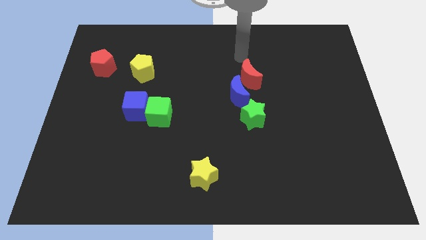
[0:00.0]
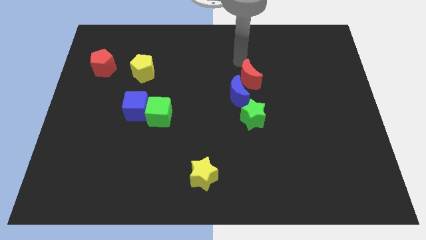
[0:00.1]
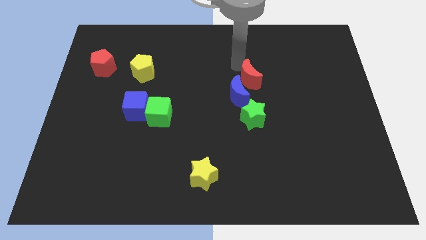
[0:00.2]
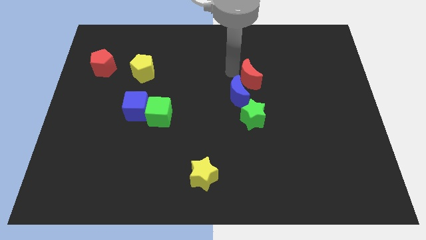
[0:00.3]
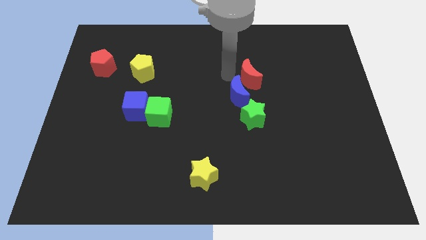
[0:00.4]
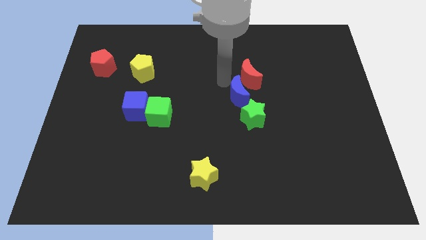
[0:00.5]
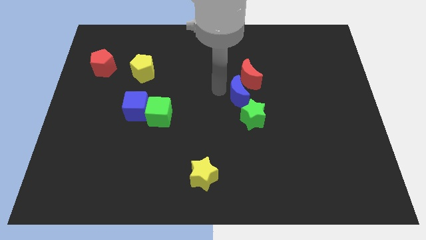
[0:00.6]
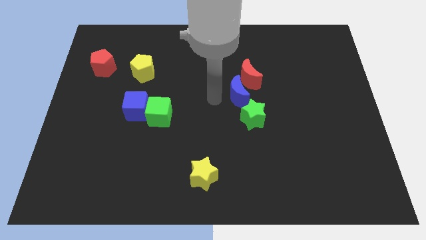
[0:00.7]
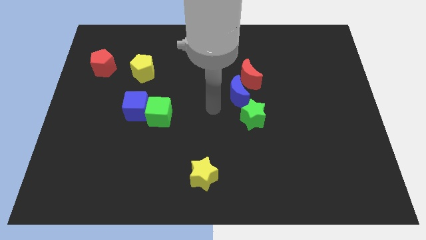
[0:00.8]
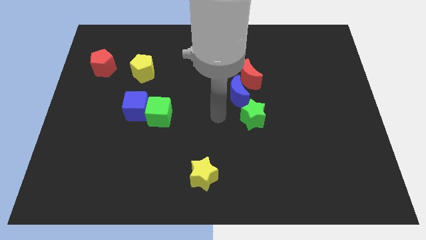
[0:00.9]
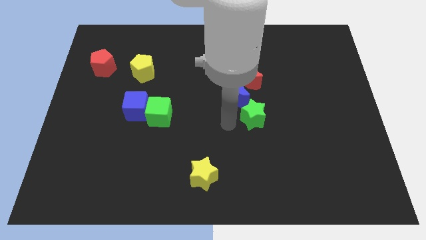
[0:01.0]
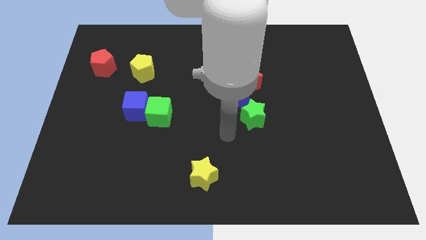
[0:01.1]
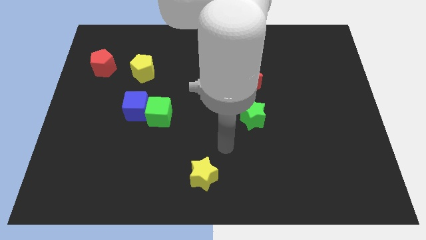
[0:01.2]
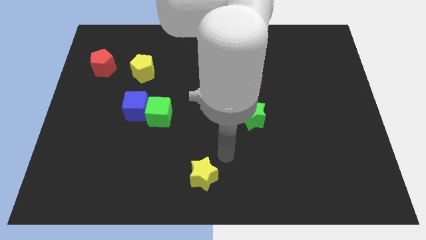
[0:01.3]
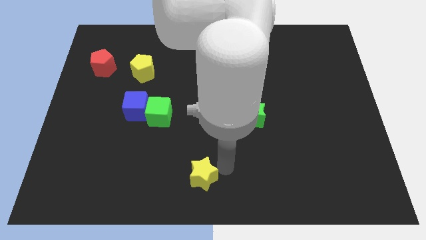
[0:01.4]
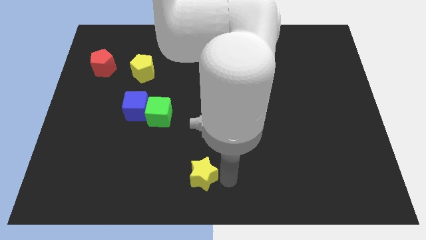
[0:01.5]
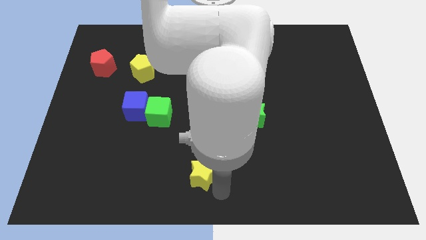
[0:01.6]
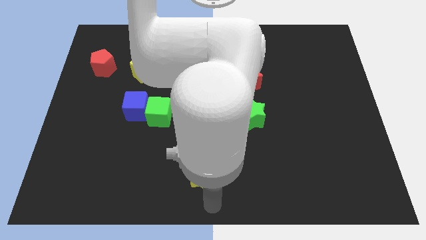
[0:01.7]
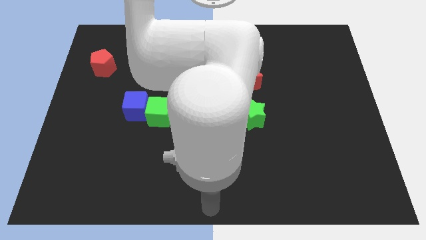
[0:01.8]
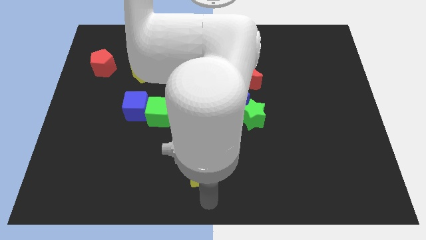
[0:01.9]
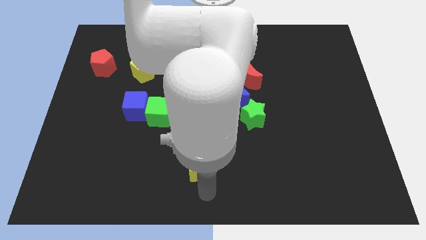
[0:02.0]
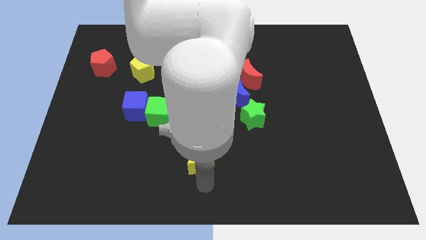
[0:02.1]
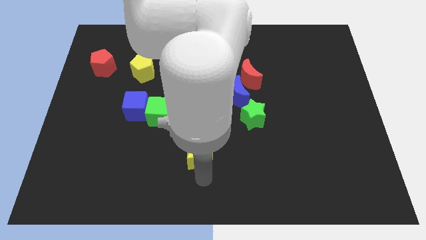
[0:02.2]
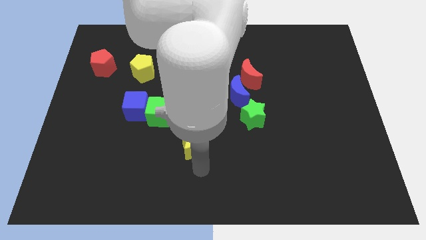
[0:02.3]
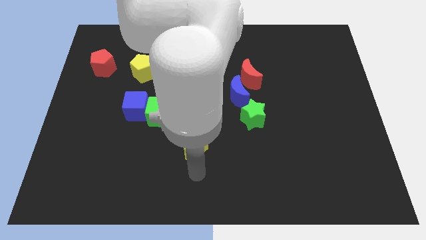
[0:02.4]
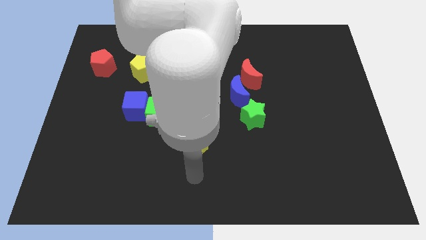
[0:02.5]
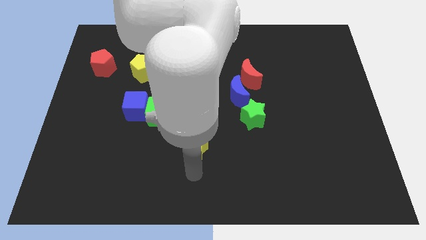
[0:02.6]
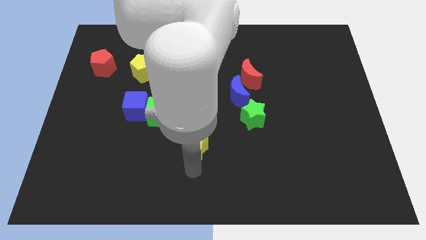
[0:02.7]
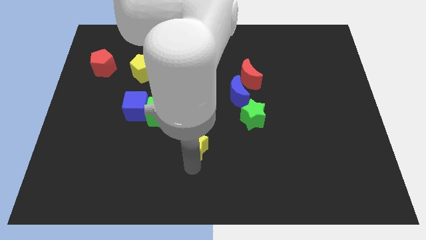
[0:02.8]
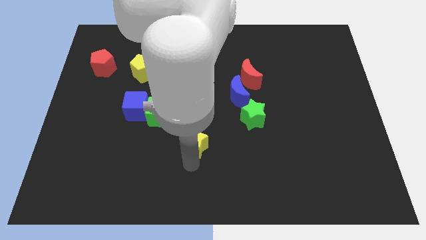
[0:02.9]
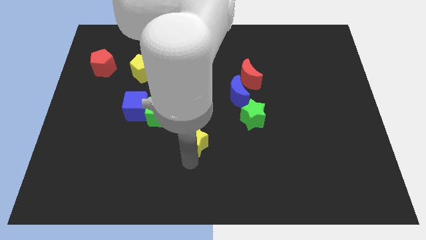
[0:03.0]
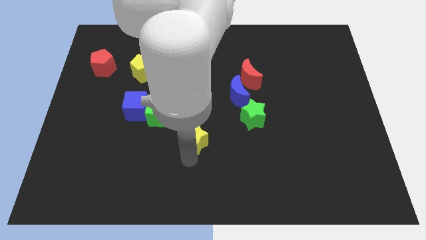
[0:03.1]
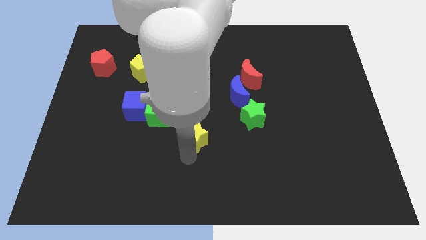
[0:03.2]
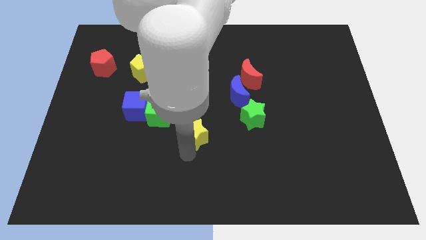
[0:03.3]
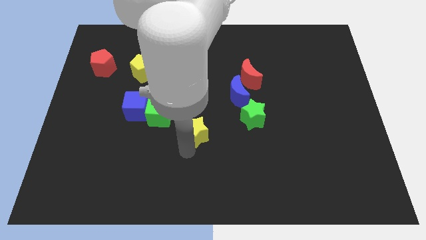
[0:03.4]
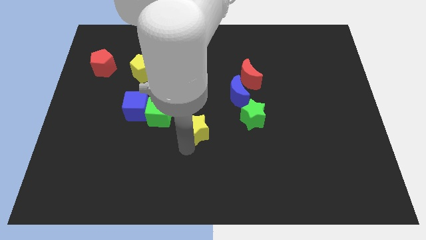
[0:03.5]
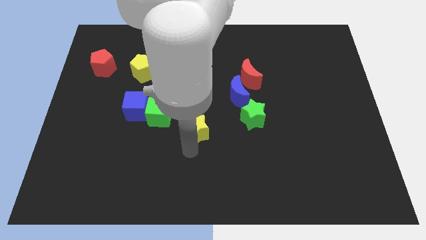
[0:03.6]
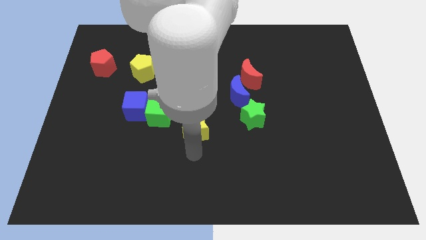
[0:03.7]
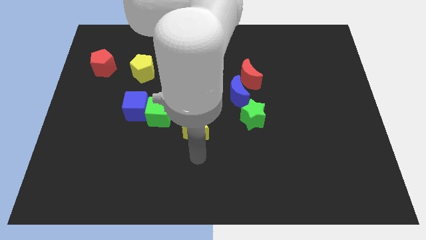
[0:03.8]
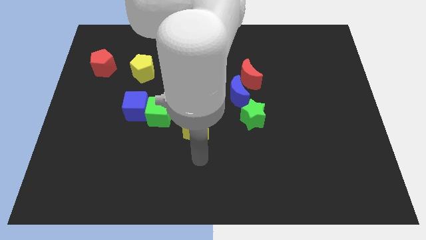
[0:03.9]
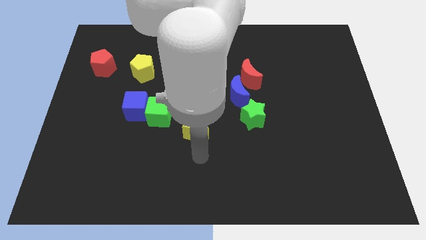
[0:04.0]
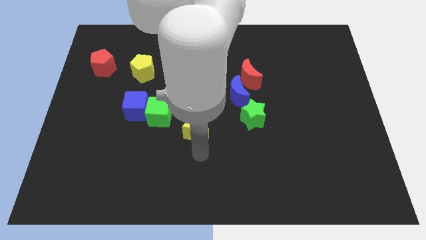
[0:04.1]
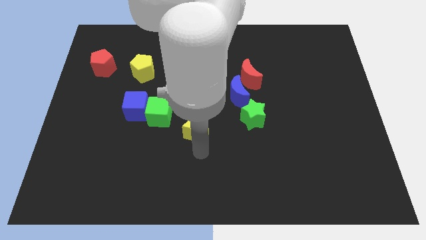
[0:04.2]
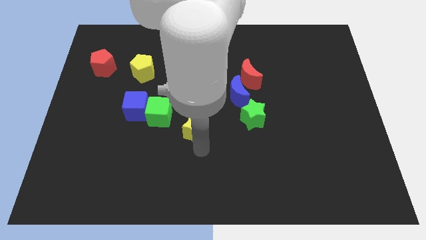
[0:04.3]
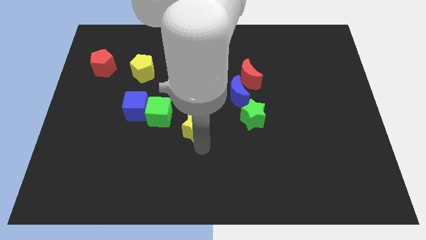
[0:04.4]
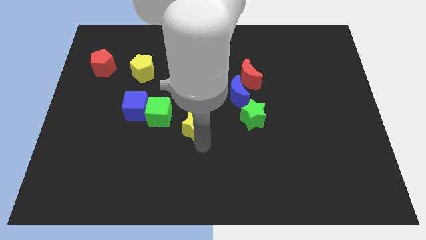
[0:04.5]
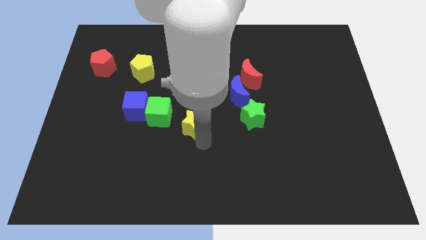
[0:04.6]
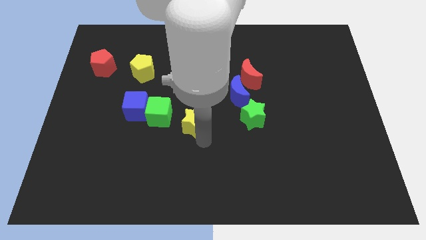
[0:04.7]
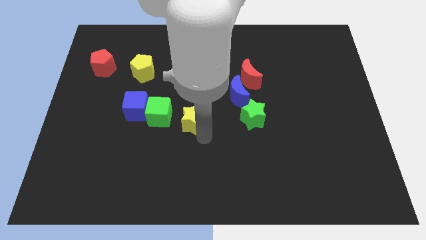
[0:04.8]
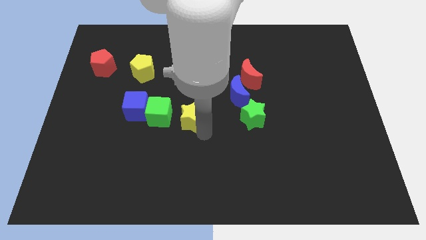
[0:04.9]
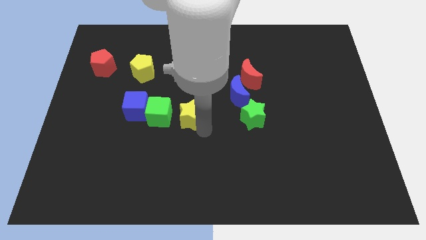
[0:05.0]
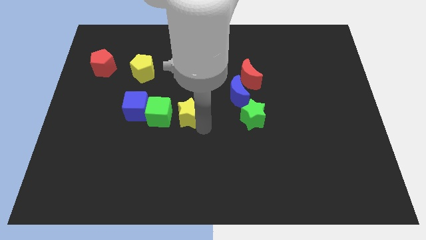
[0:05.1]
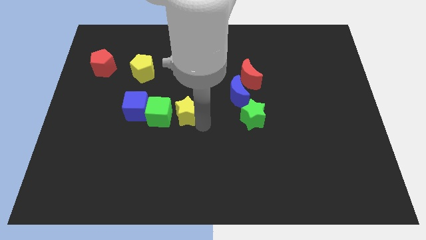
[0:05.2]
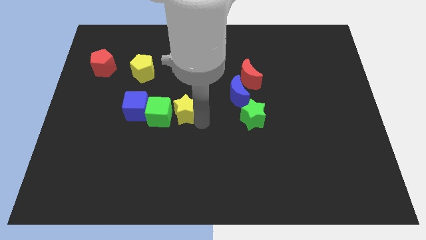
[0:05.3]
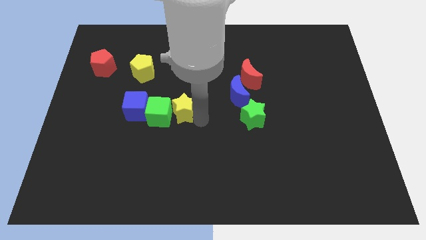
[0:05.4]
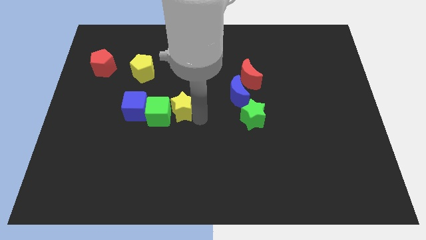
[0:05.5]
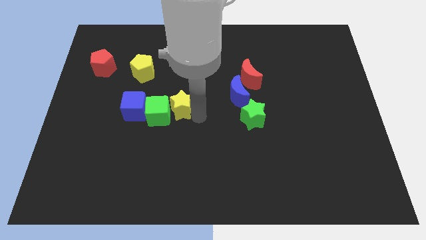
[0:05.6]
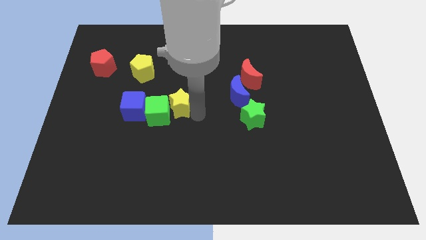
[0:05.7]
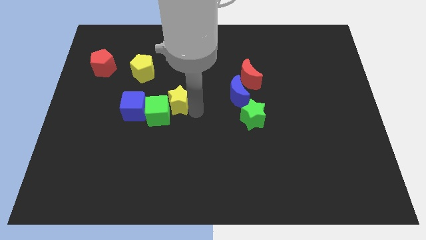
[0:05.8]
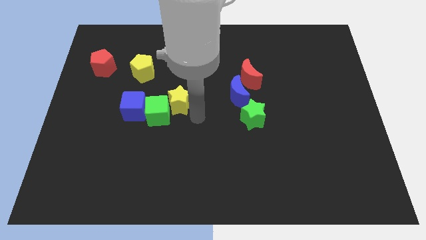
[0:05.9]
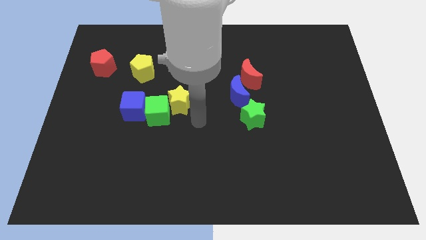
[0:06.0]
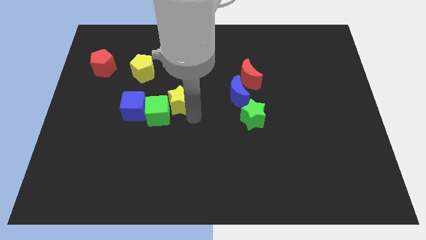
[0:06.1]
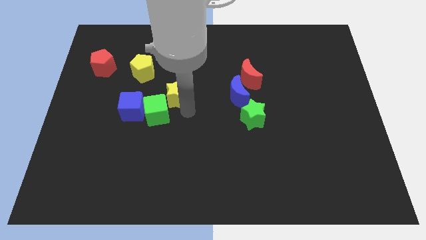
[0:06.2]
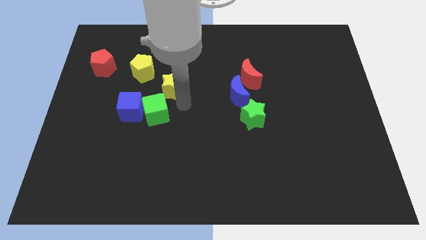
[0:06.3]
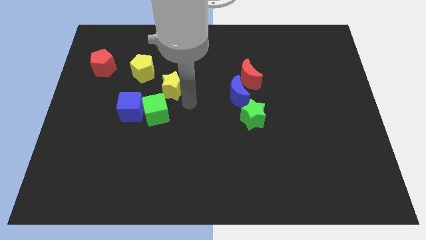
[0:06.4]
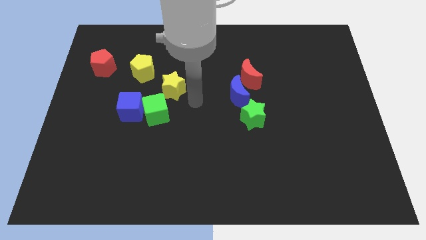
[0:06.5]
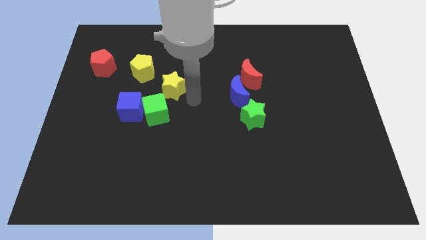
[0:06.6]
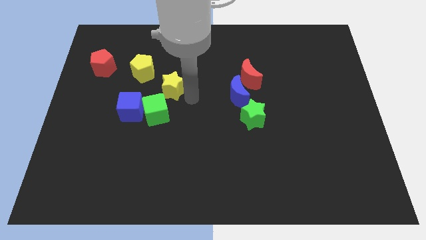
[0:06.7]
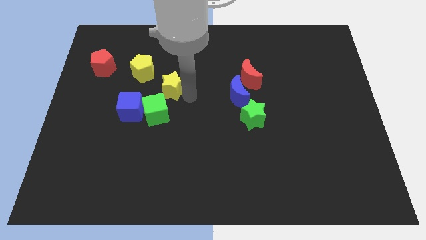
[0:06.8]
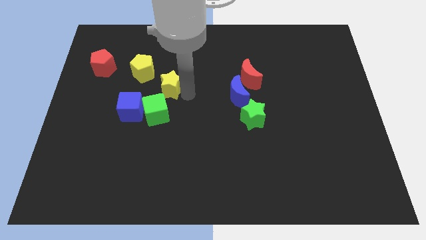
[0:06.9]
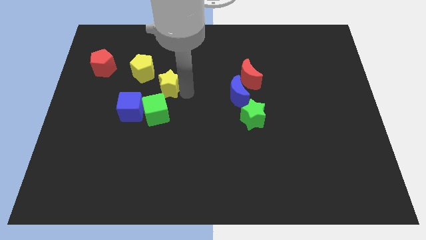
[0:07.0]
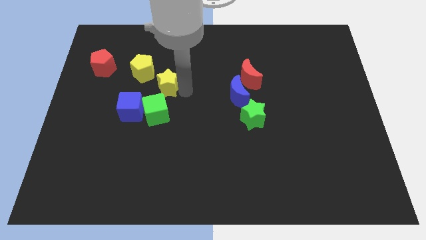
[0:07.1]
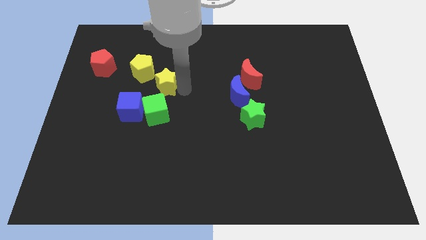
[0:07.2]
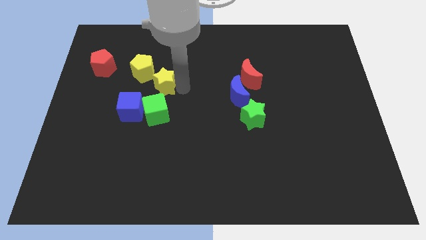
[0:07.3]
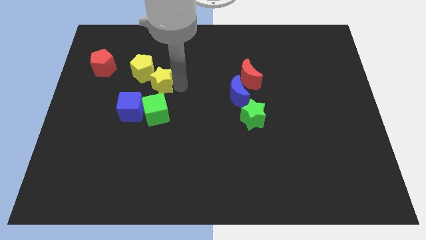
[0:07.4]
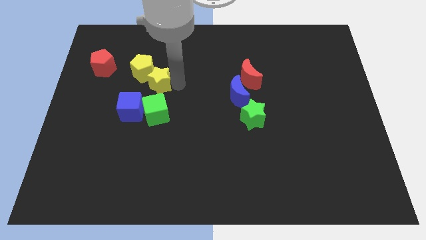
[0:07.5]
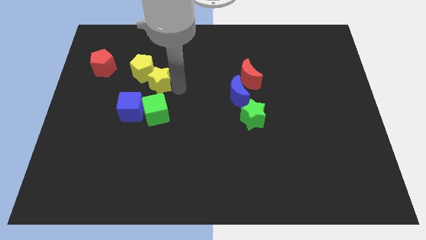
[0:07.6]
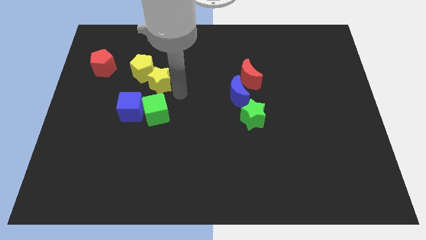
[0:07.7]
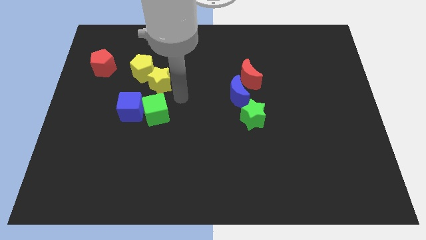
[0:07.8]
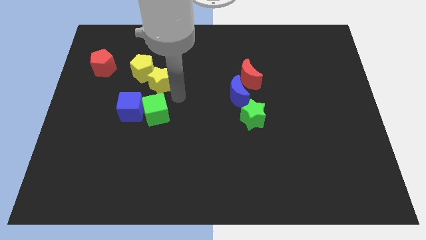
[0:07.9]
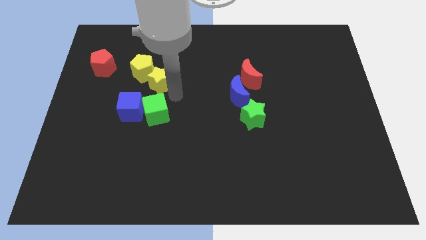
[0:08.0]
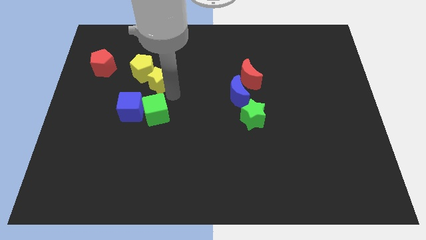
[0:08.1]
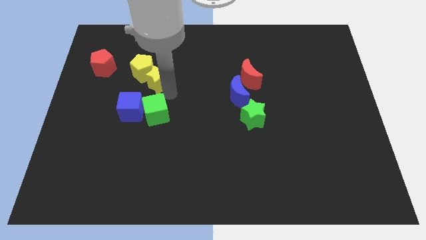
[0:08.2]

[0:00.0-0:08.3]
put the yellow star next to the yellow pentagon
